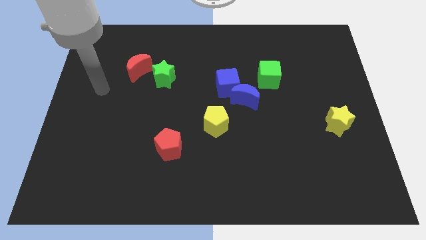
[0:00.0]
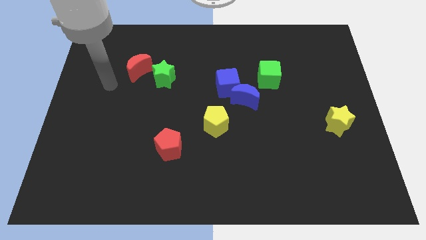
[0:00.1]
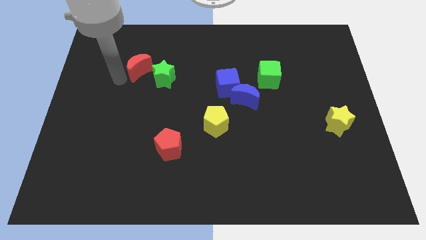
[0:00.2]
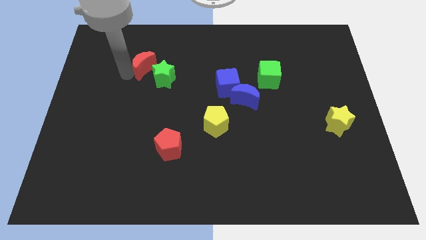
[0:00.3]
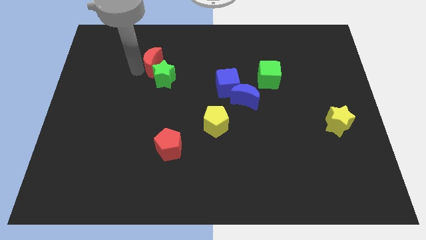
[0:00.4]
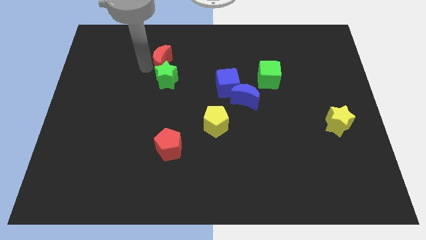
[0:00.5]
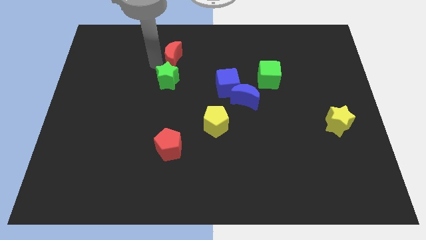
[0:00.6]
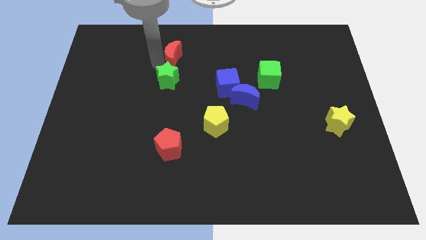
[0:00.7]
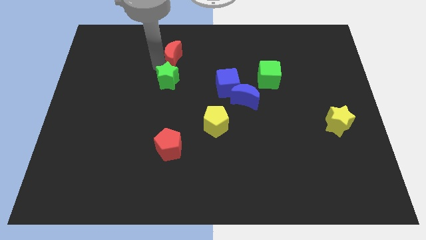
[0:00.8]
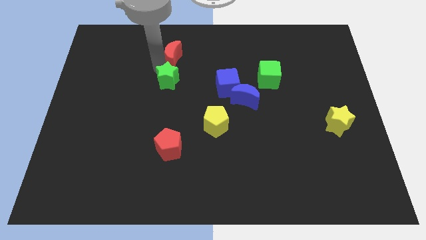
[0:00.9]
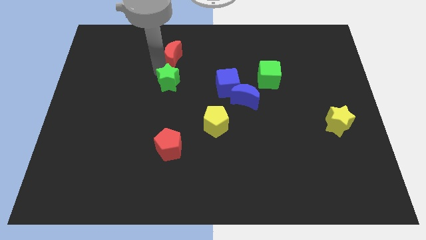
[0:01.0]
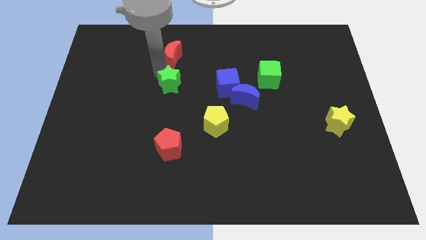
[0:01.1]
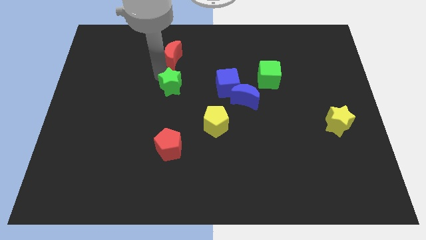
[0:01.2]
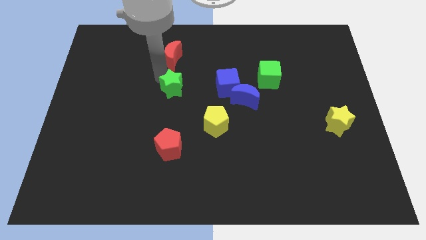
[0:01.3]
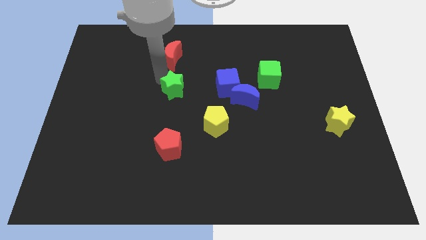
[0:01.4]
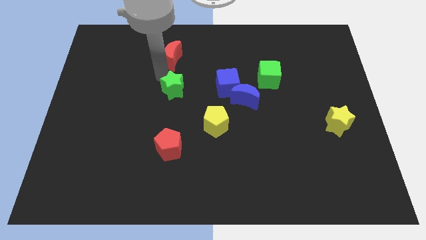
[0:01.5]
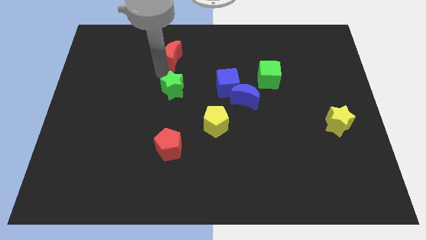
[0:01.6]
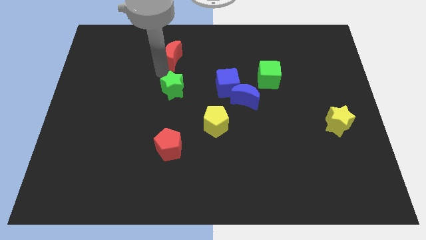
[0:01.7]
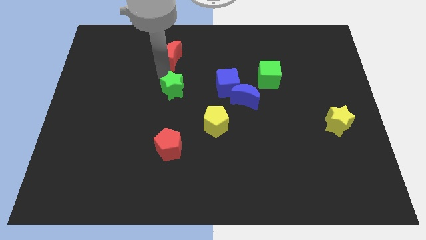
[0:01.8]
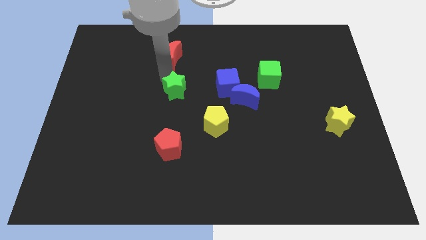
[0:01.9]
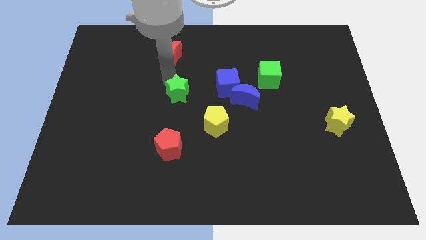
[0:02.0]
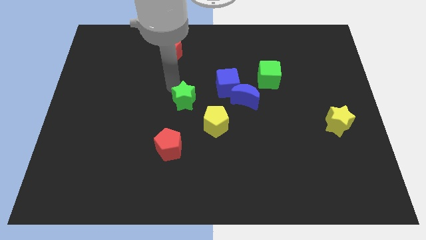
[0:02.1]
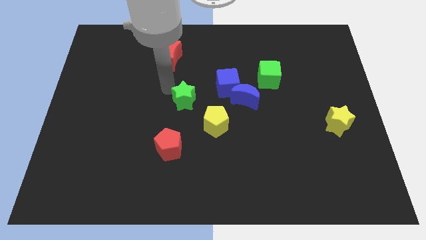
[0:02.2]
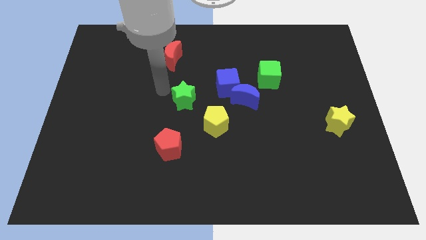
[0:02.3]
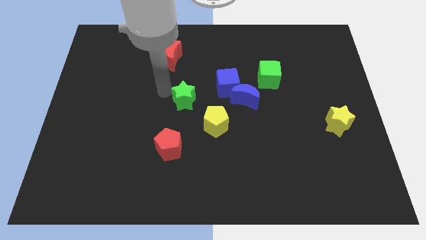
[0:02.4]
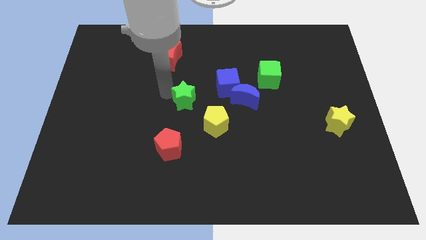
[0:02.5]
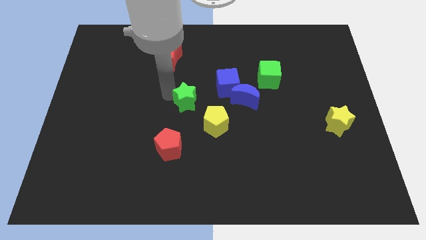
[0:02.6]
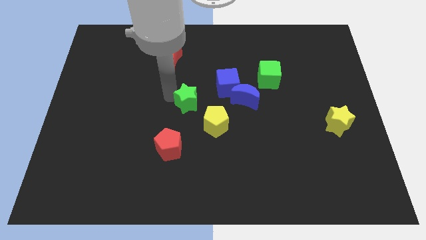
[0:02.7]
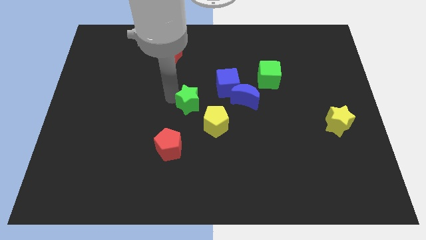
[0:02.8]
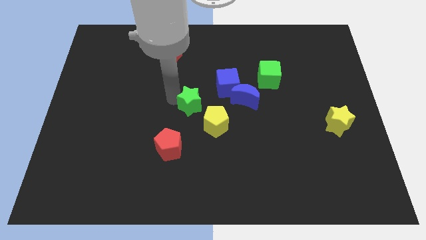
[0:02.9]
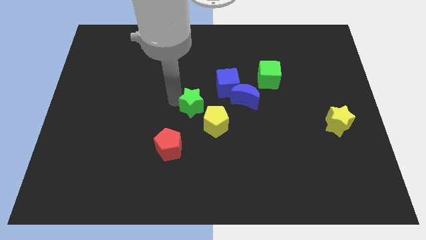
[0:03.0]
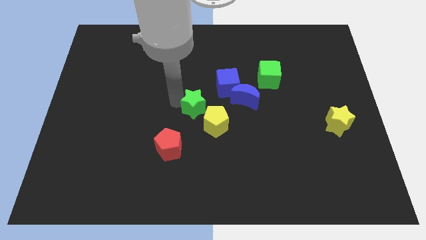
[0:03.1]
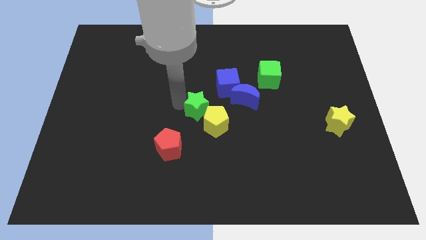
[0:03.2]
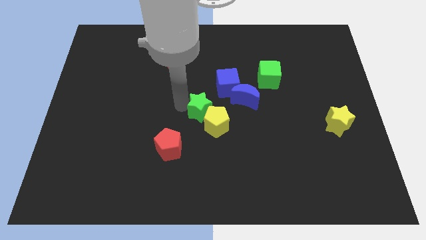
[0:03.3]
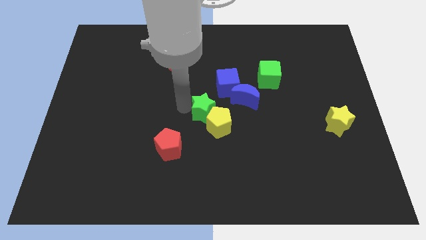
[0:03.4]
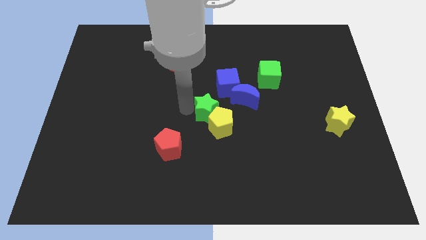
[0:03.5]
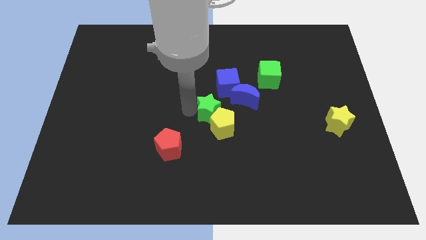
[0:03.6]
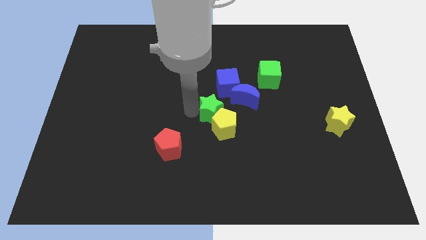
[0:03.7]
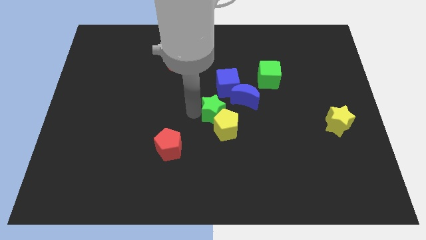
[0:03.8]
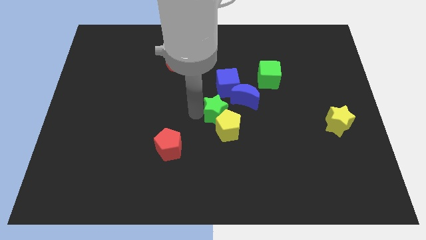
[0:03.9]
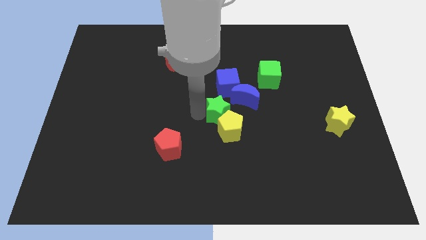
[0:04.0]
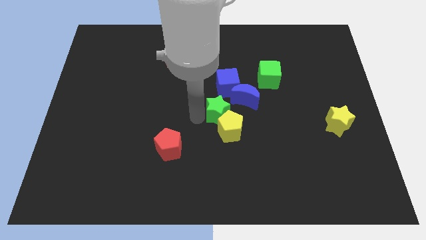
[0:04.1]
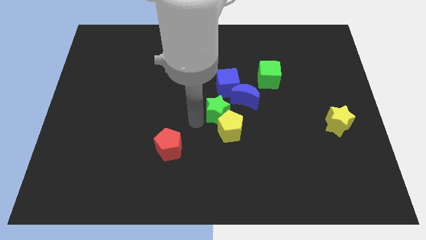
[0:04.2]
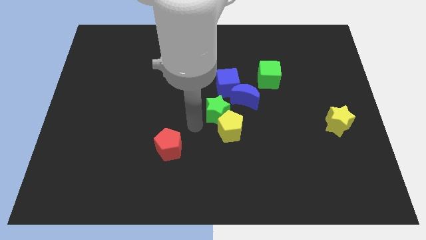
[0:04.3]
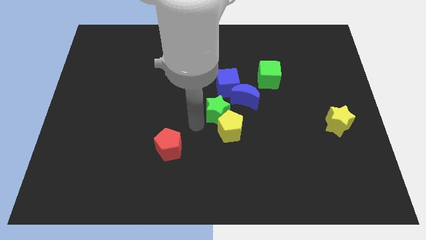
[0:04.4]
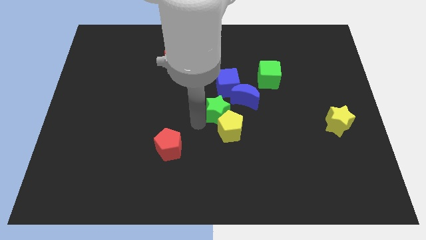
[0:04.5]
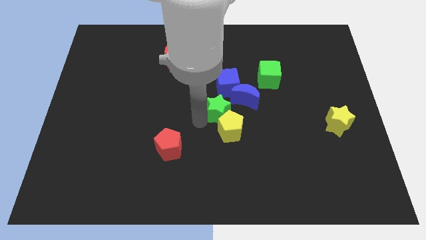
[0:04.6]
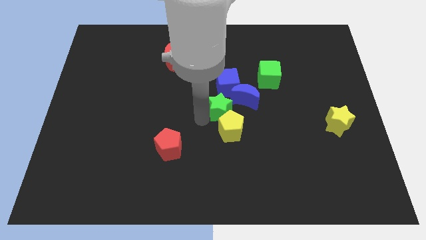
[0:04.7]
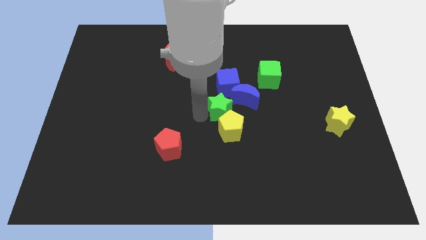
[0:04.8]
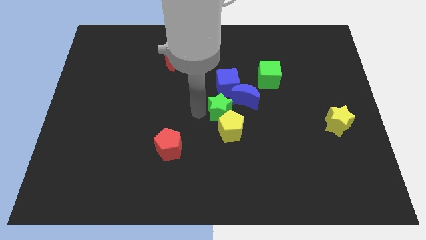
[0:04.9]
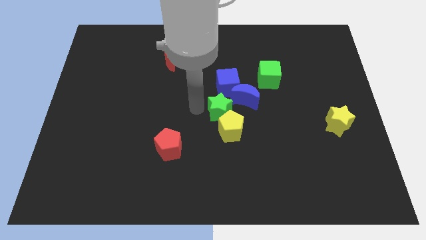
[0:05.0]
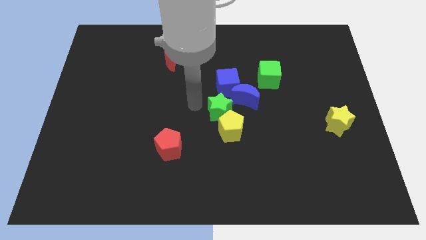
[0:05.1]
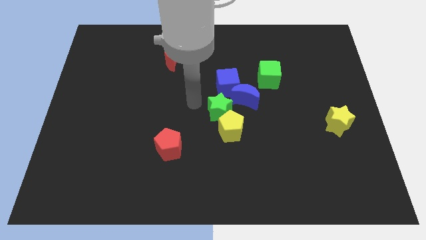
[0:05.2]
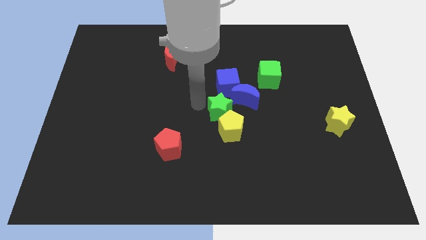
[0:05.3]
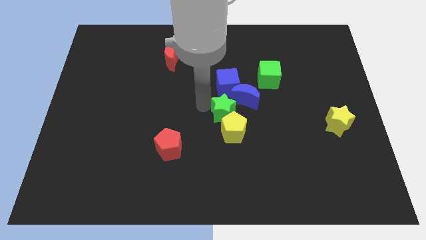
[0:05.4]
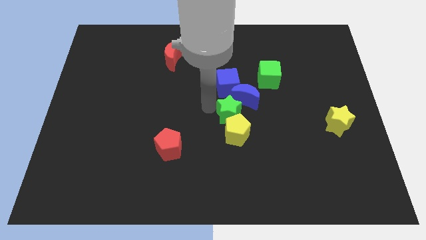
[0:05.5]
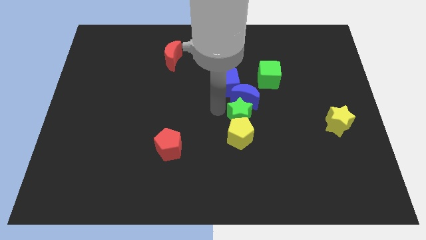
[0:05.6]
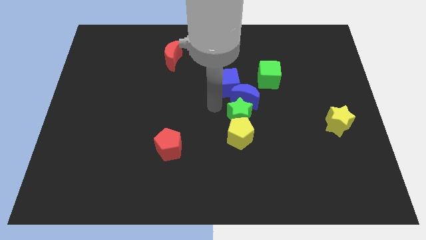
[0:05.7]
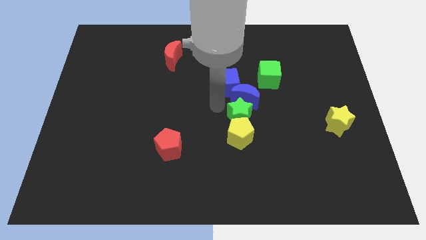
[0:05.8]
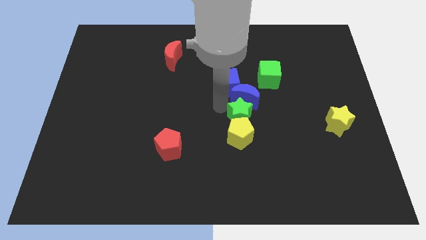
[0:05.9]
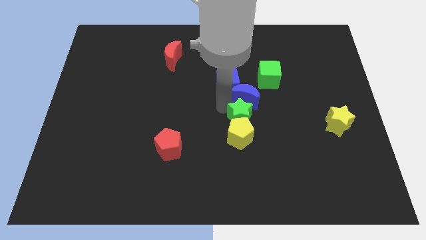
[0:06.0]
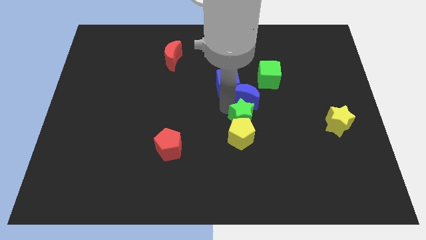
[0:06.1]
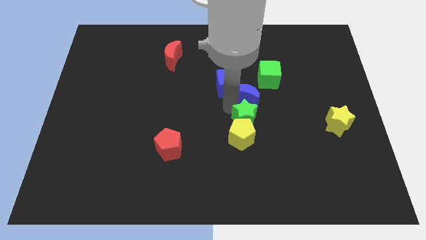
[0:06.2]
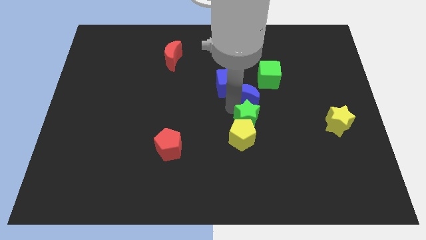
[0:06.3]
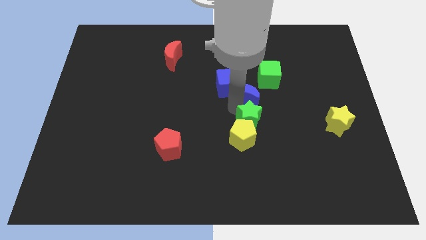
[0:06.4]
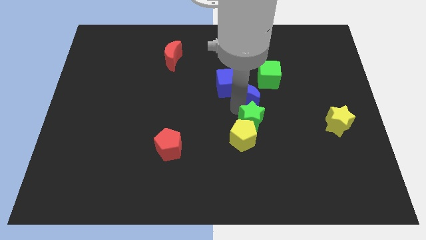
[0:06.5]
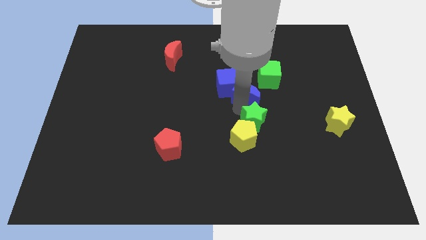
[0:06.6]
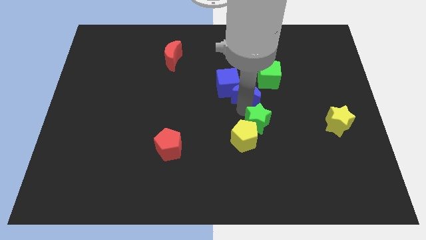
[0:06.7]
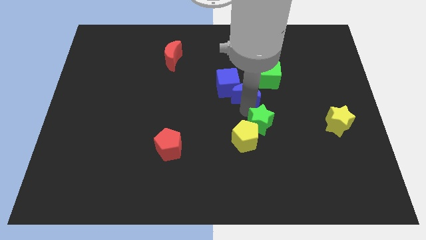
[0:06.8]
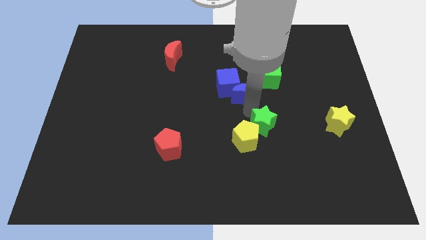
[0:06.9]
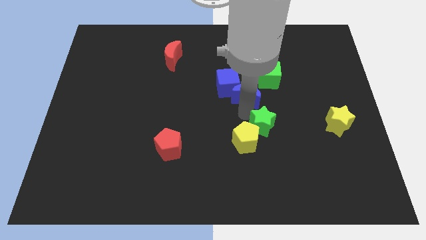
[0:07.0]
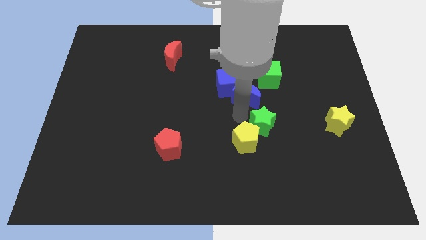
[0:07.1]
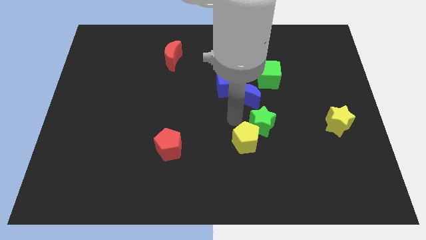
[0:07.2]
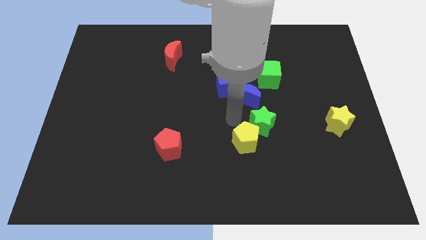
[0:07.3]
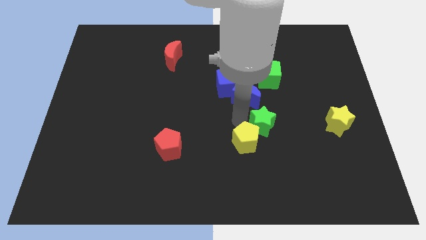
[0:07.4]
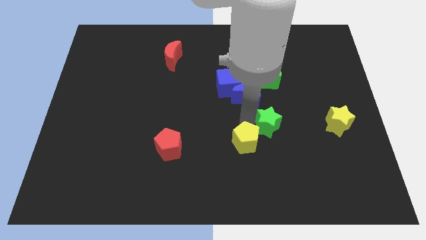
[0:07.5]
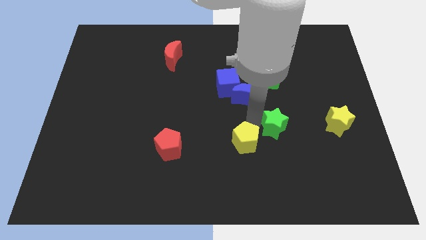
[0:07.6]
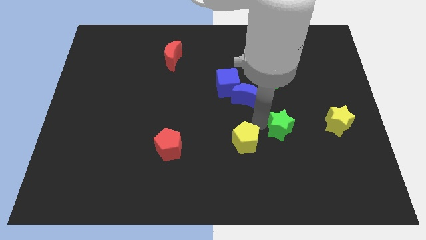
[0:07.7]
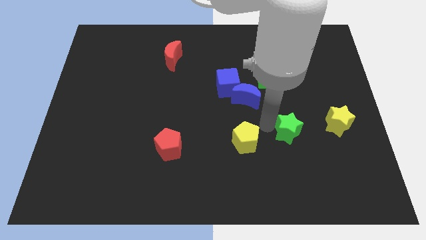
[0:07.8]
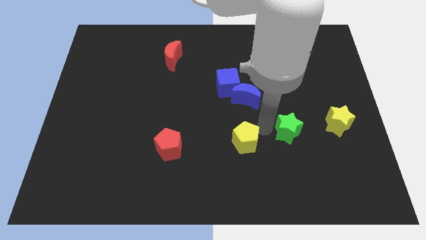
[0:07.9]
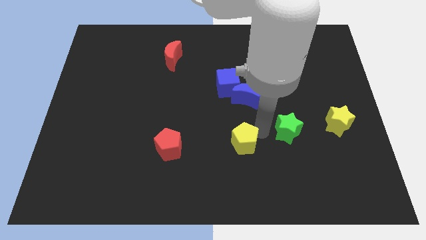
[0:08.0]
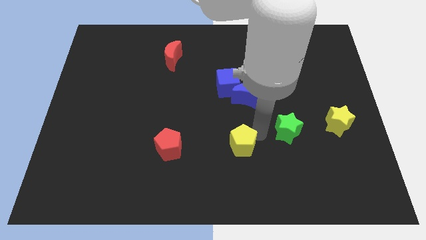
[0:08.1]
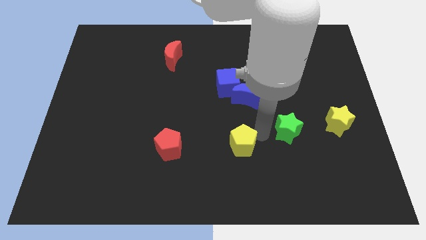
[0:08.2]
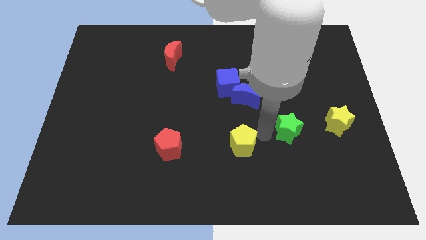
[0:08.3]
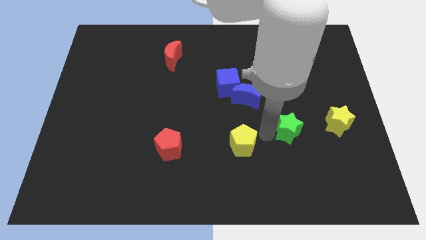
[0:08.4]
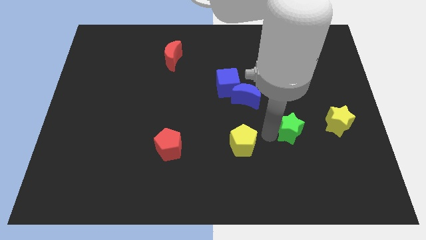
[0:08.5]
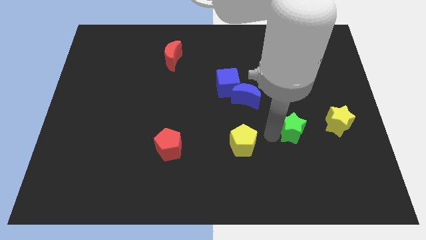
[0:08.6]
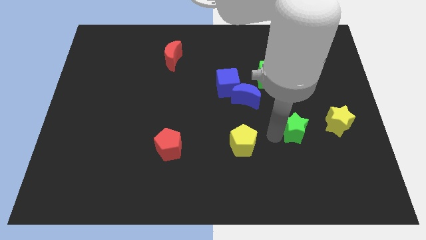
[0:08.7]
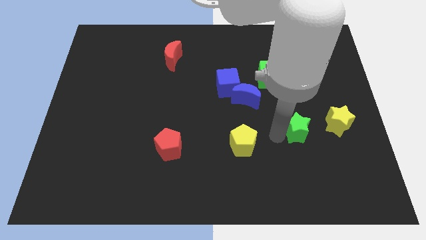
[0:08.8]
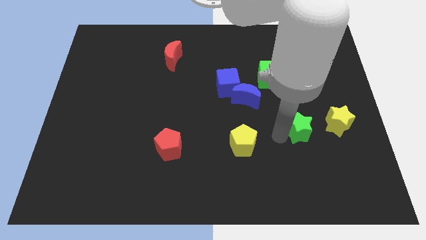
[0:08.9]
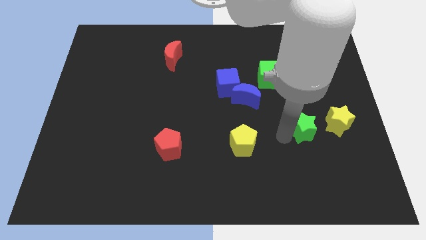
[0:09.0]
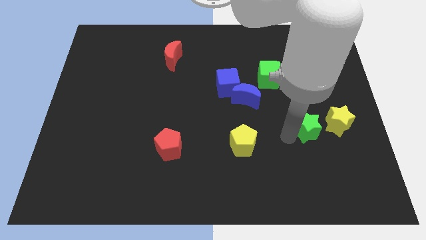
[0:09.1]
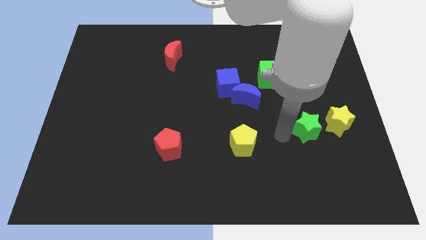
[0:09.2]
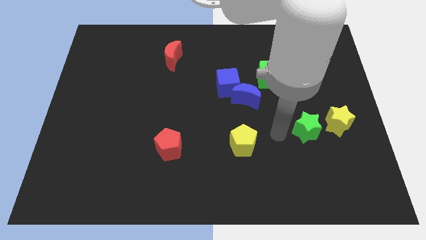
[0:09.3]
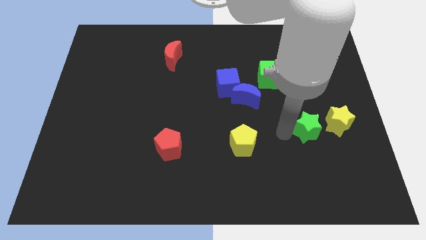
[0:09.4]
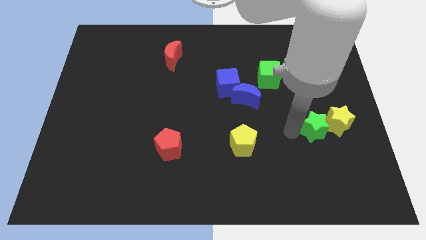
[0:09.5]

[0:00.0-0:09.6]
slide the green star towards the yellow star
